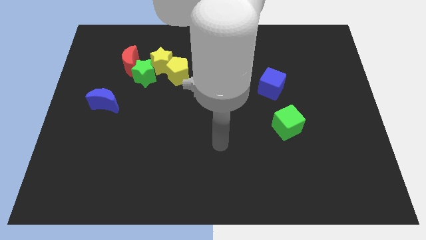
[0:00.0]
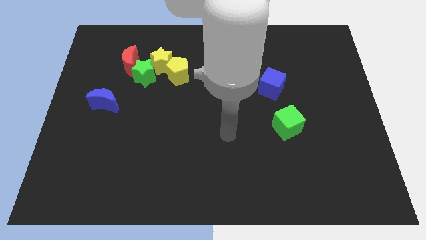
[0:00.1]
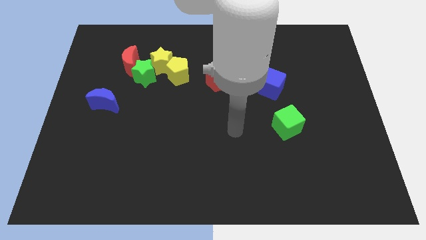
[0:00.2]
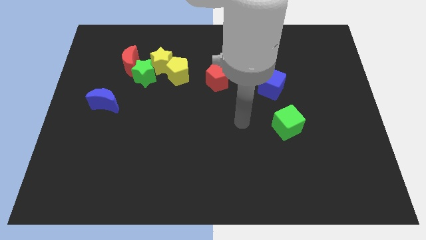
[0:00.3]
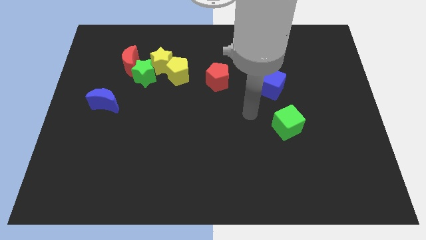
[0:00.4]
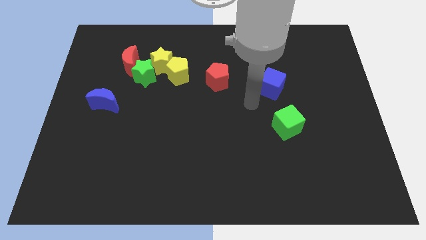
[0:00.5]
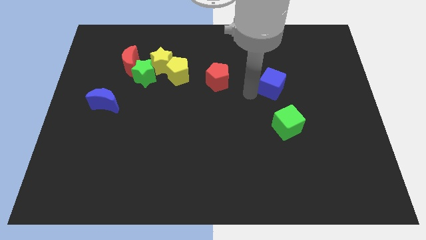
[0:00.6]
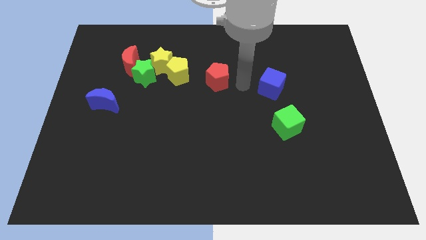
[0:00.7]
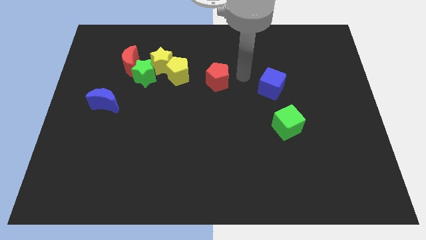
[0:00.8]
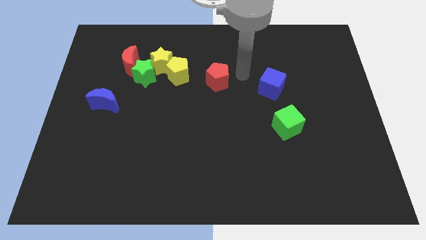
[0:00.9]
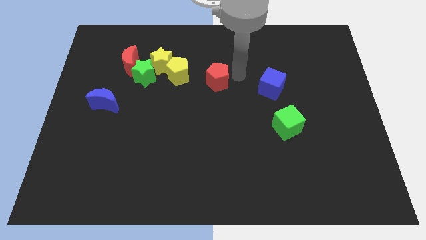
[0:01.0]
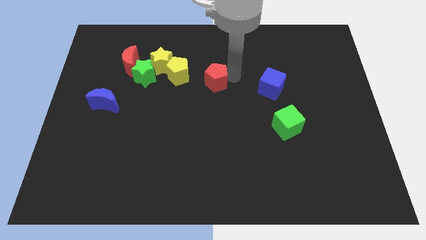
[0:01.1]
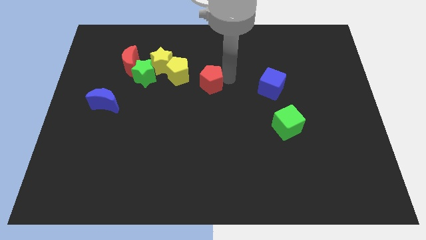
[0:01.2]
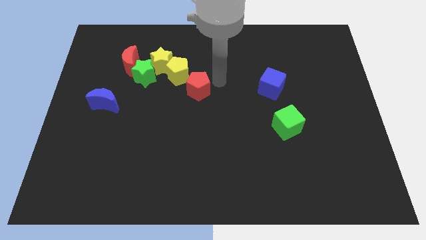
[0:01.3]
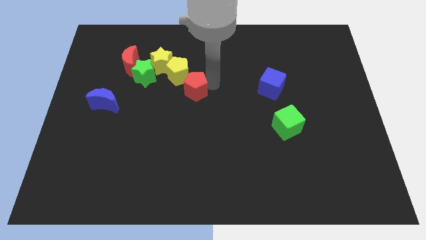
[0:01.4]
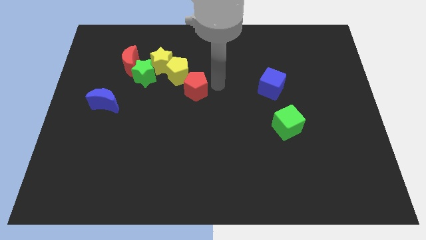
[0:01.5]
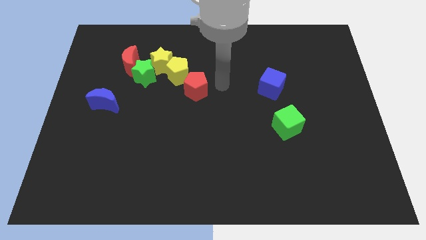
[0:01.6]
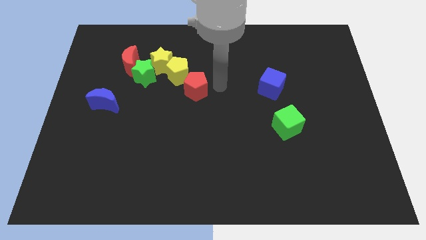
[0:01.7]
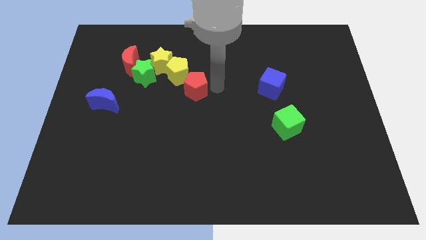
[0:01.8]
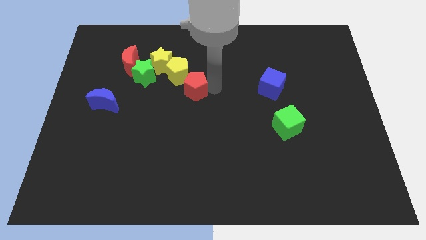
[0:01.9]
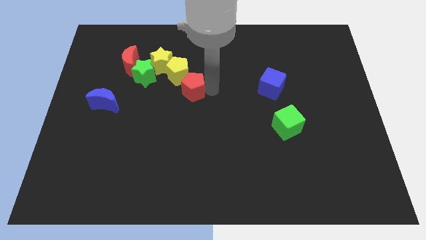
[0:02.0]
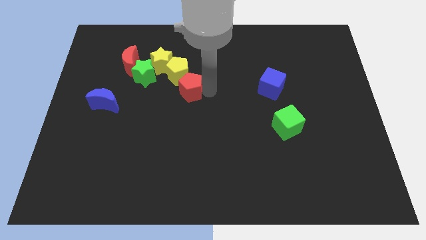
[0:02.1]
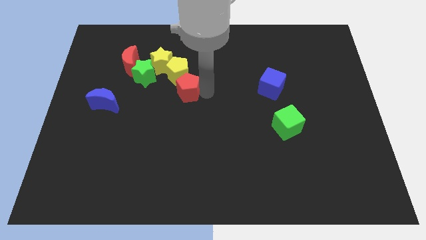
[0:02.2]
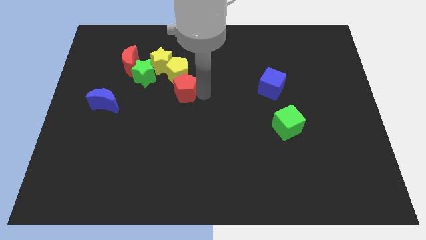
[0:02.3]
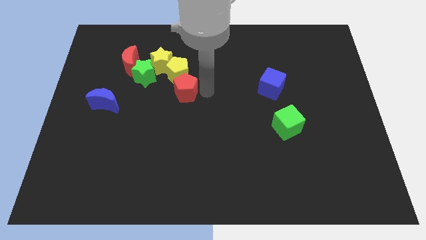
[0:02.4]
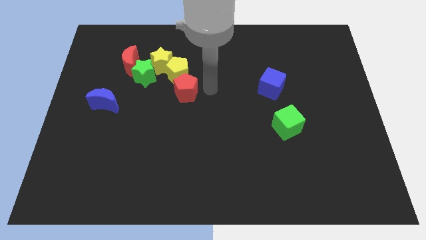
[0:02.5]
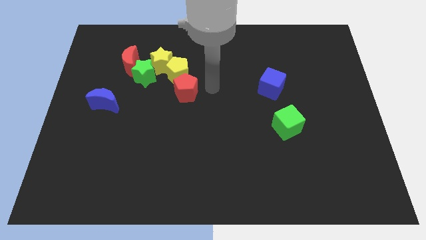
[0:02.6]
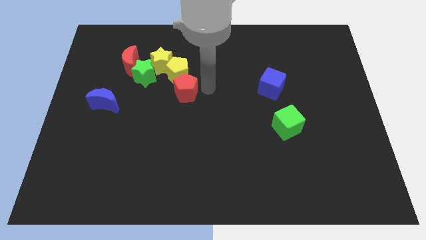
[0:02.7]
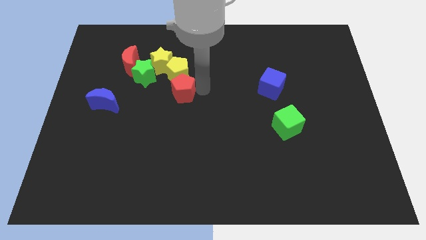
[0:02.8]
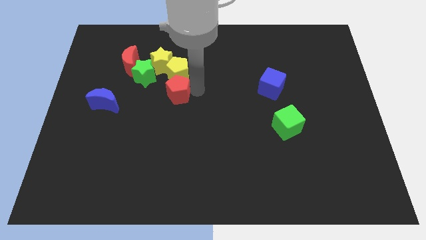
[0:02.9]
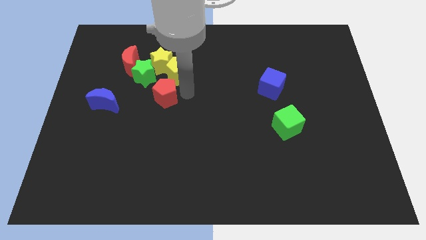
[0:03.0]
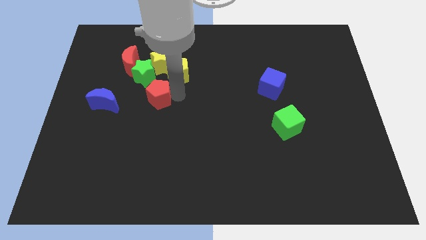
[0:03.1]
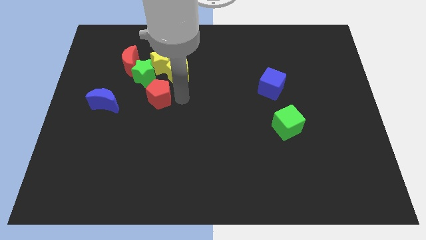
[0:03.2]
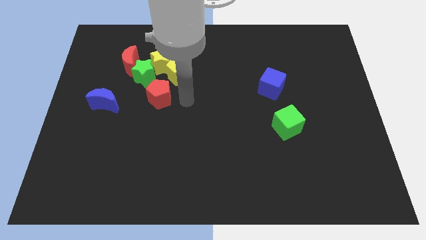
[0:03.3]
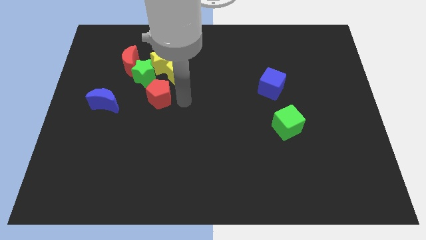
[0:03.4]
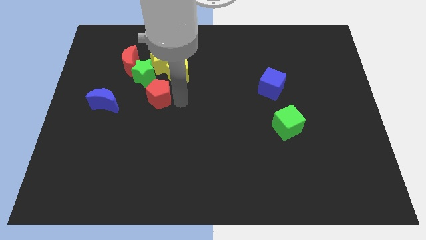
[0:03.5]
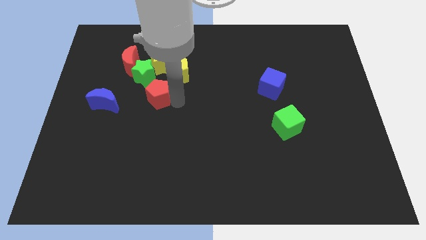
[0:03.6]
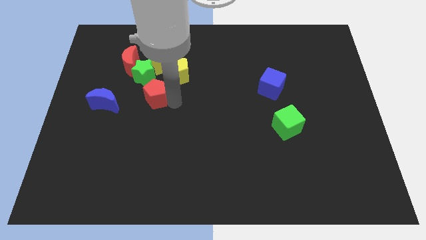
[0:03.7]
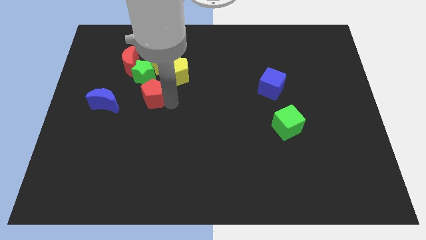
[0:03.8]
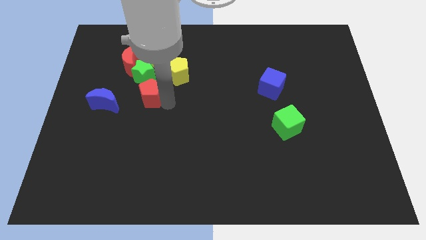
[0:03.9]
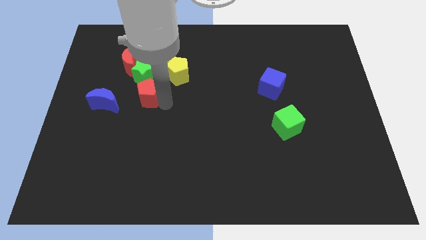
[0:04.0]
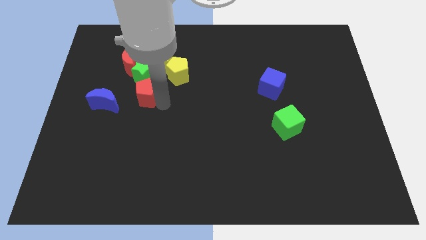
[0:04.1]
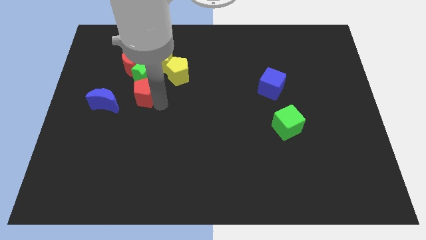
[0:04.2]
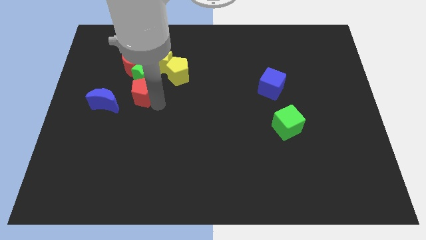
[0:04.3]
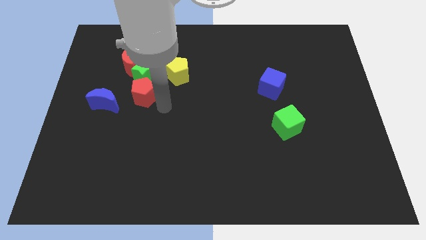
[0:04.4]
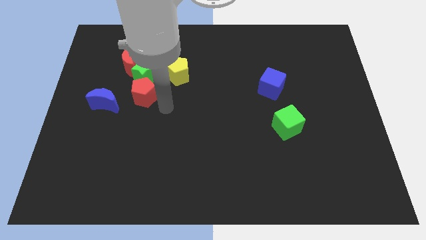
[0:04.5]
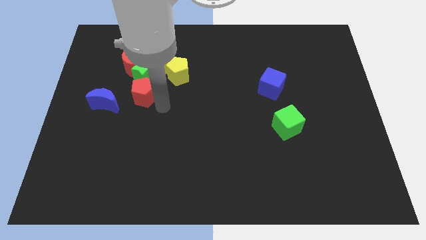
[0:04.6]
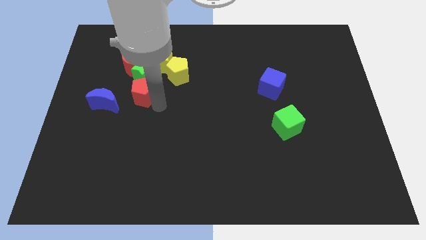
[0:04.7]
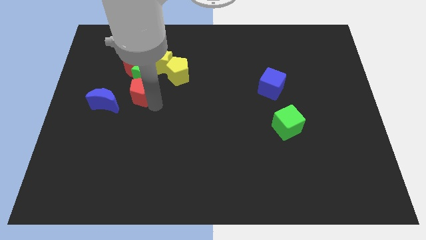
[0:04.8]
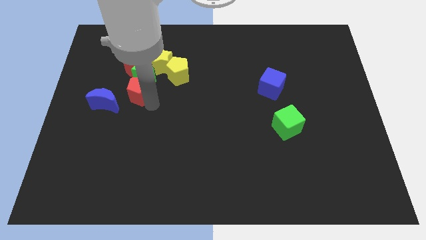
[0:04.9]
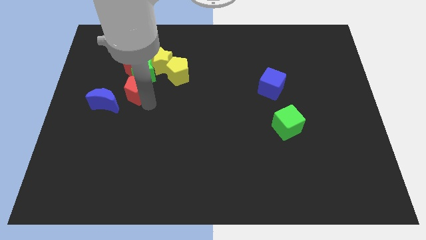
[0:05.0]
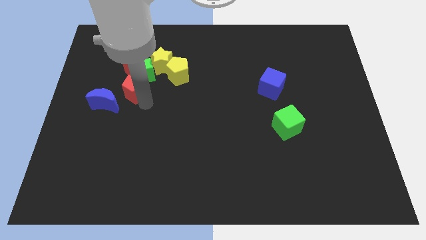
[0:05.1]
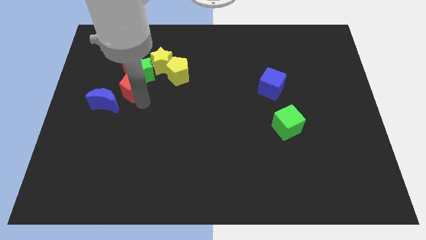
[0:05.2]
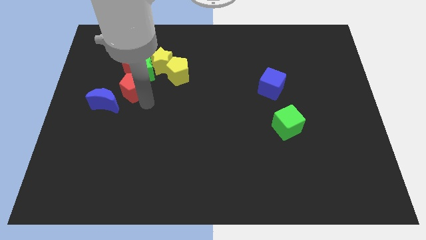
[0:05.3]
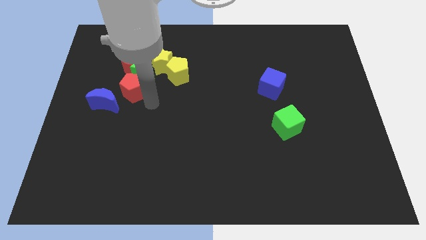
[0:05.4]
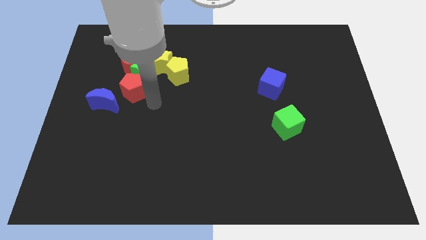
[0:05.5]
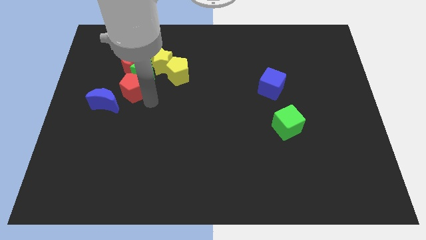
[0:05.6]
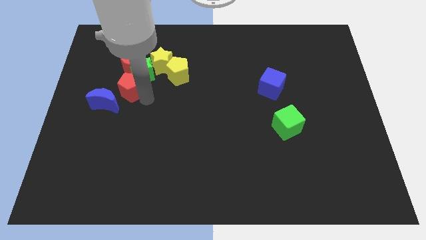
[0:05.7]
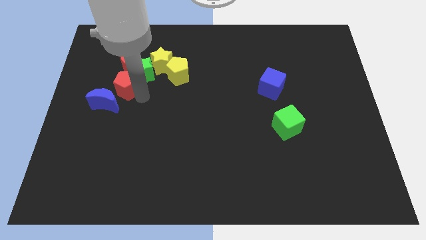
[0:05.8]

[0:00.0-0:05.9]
put the red pentagon above the blue moon

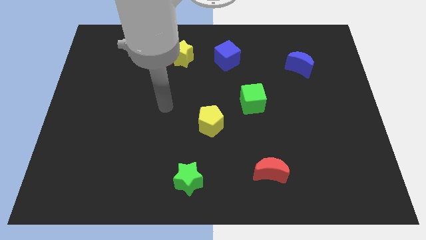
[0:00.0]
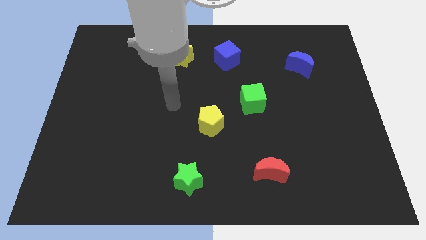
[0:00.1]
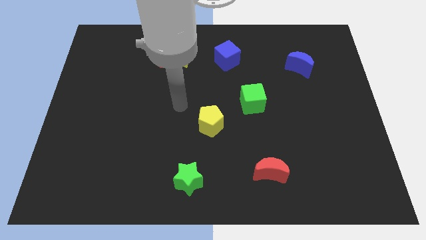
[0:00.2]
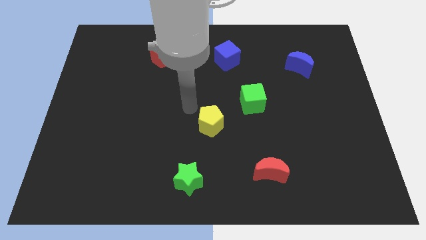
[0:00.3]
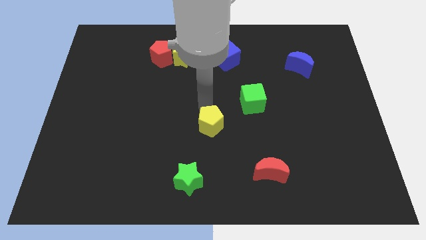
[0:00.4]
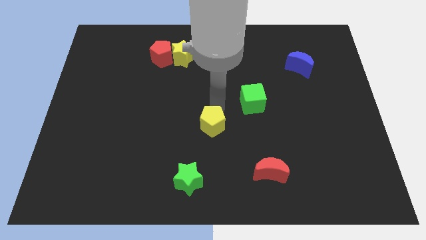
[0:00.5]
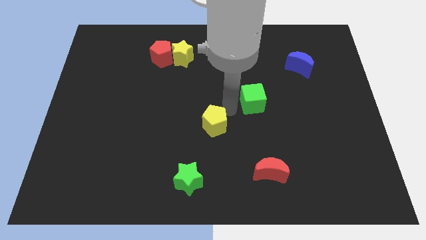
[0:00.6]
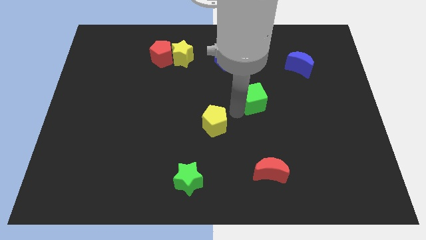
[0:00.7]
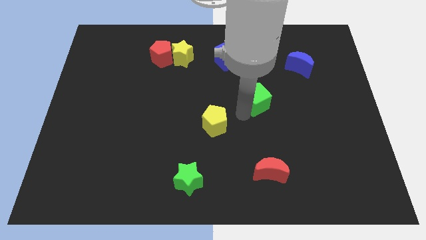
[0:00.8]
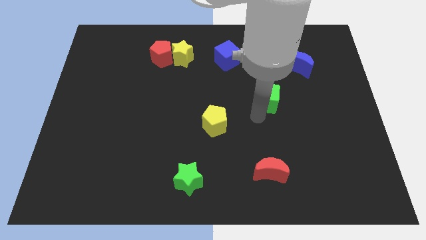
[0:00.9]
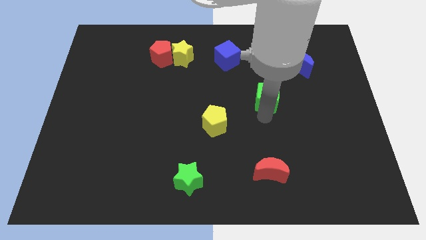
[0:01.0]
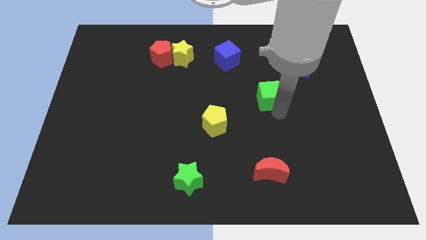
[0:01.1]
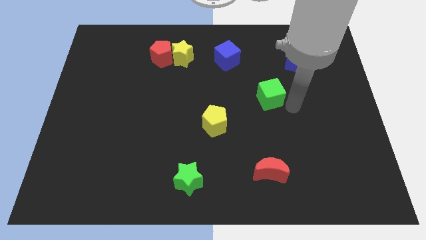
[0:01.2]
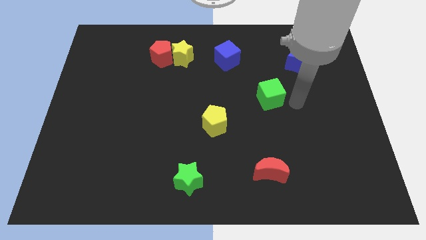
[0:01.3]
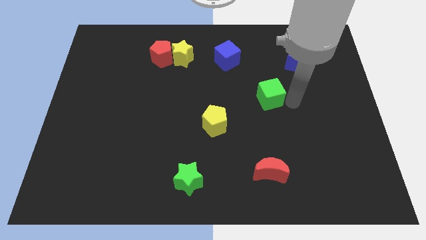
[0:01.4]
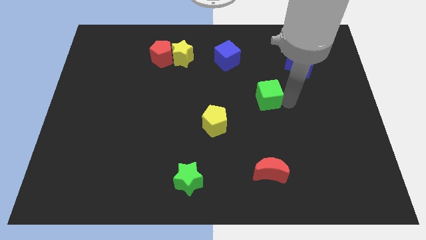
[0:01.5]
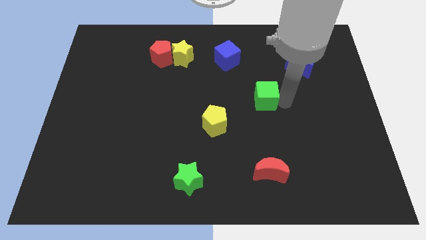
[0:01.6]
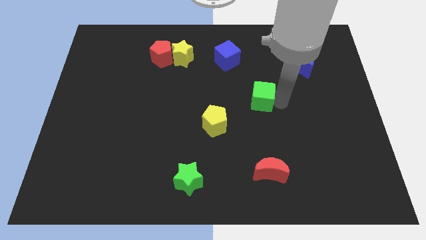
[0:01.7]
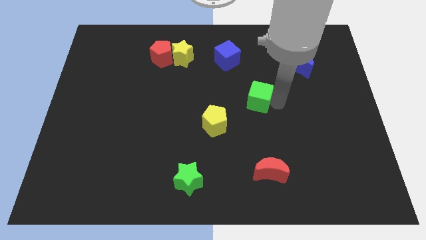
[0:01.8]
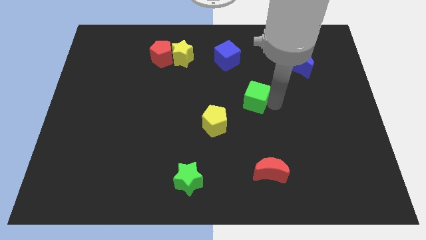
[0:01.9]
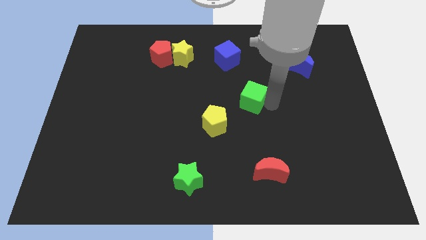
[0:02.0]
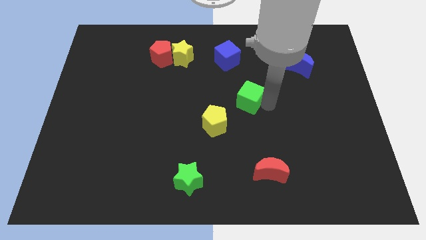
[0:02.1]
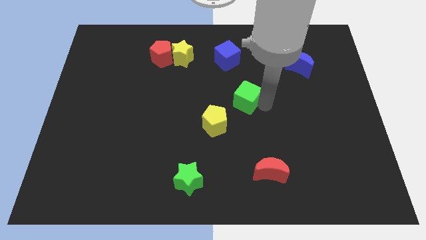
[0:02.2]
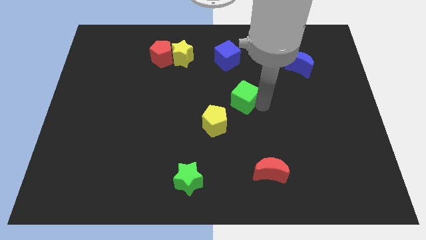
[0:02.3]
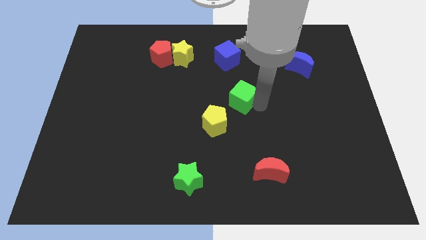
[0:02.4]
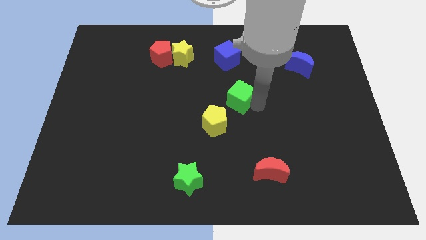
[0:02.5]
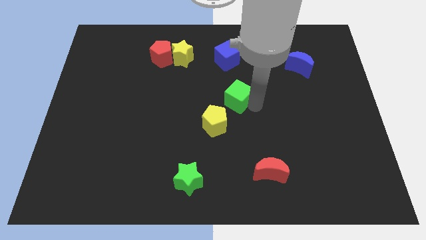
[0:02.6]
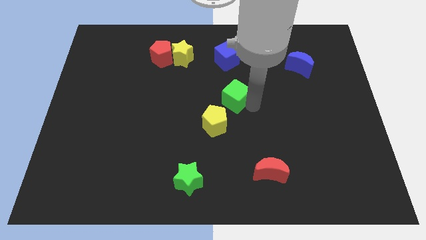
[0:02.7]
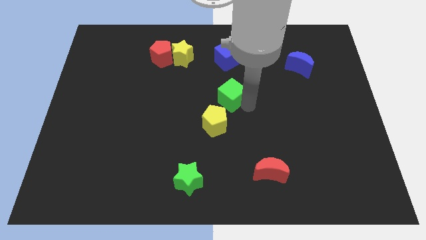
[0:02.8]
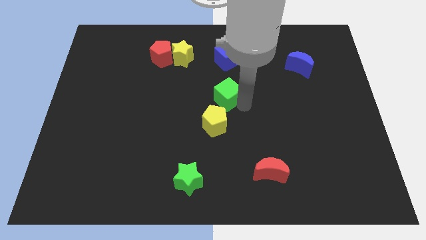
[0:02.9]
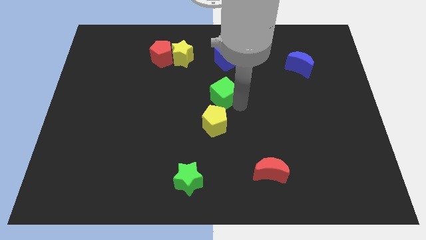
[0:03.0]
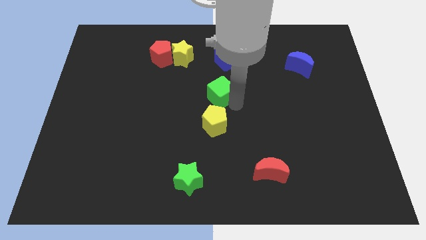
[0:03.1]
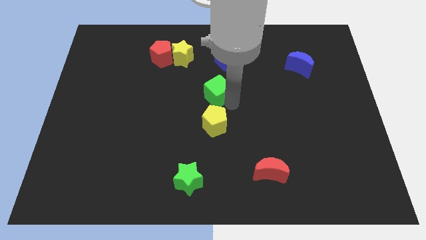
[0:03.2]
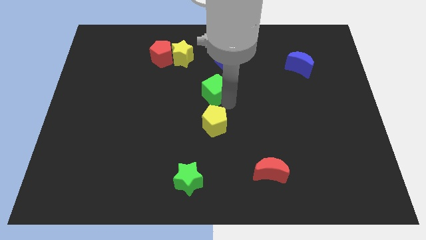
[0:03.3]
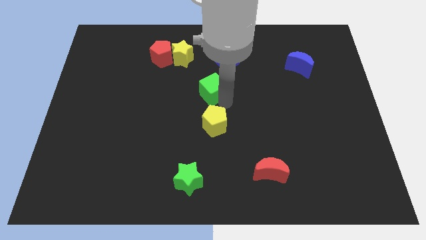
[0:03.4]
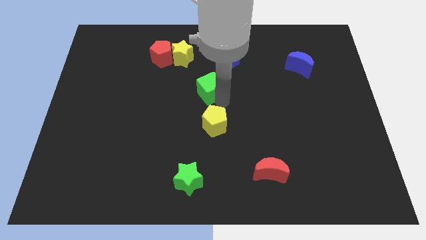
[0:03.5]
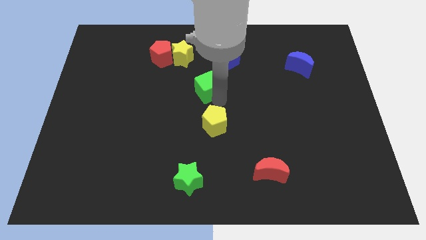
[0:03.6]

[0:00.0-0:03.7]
push the green cube to the bottom left side of the blue cube
